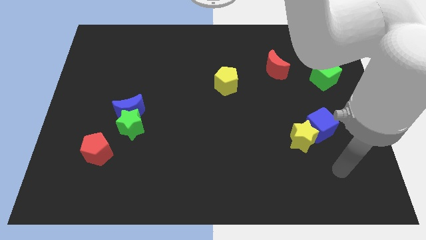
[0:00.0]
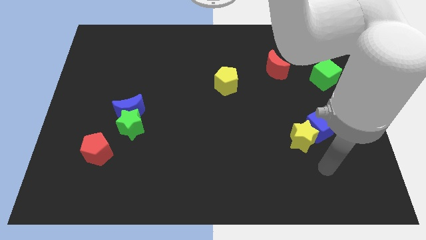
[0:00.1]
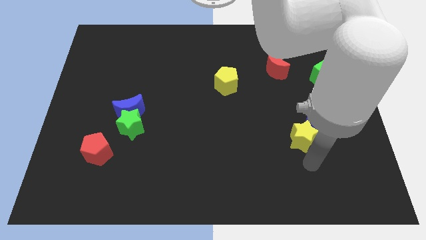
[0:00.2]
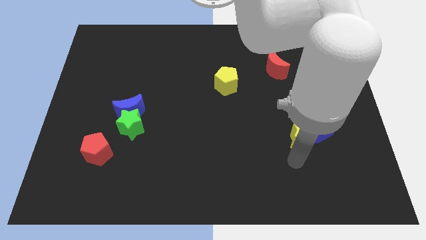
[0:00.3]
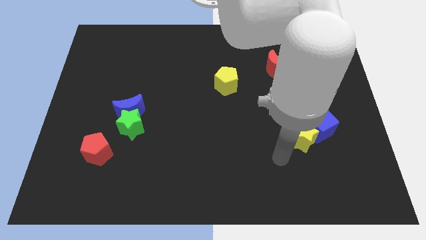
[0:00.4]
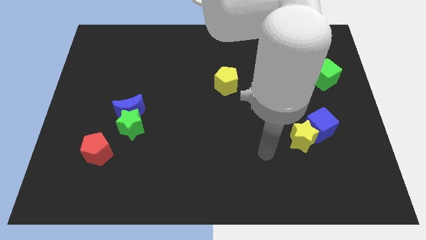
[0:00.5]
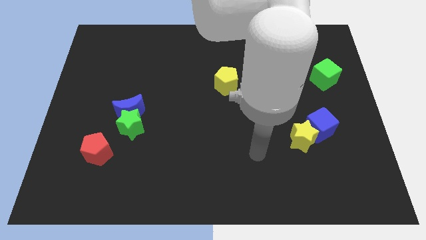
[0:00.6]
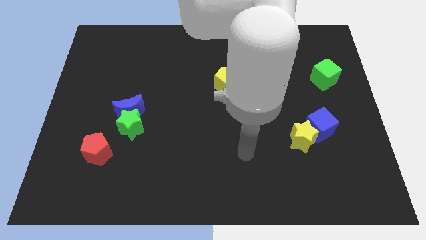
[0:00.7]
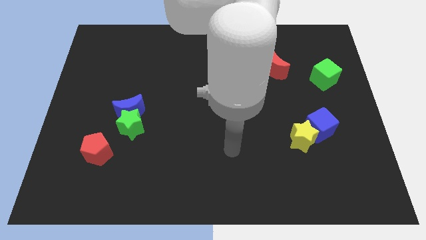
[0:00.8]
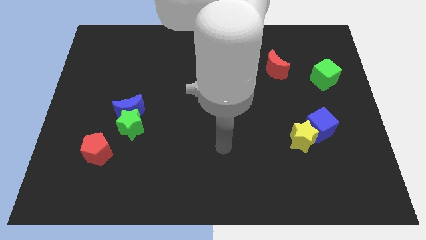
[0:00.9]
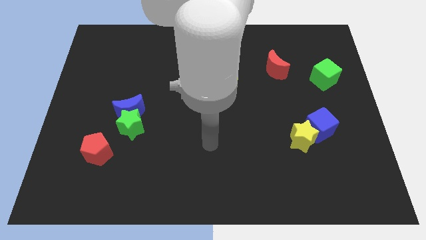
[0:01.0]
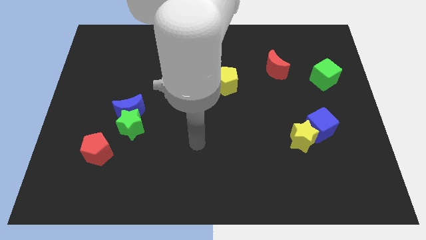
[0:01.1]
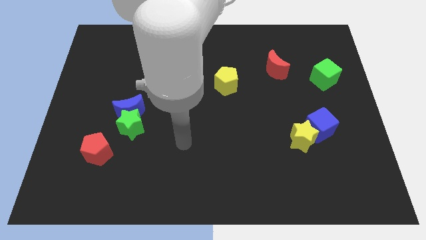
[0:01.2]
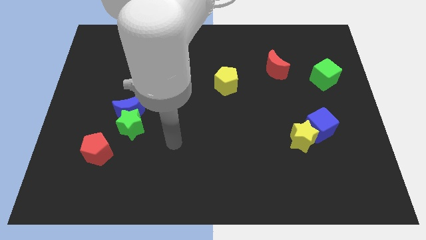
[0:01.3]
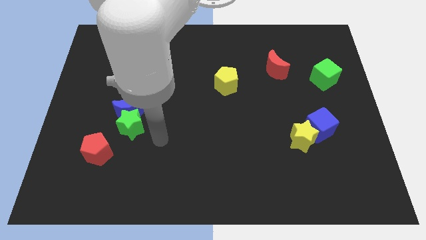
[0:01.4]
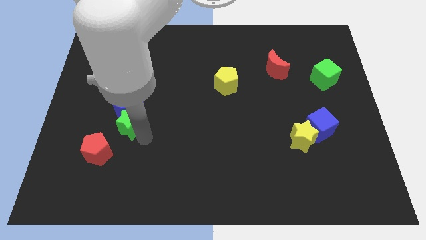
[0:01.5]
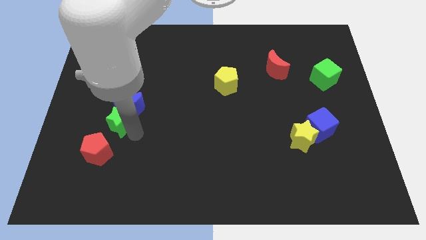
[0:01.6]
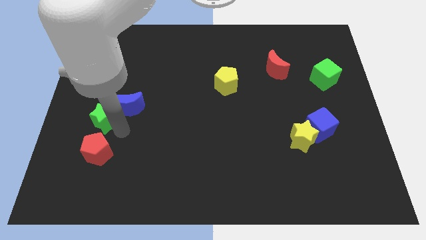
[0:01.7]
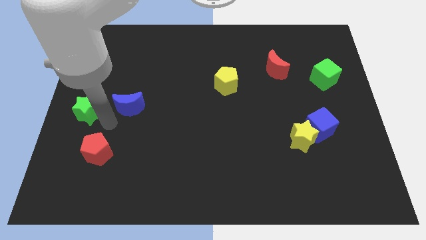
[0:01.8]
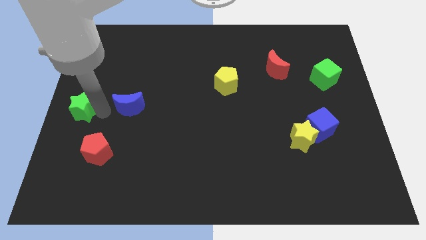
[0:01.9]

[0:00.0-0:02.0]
pull the blue moon apart from the green star

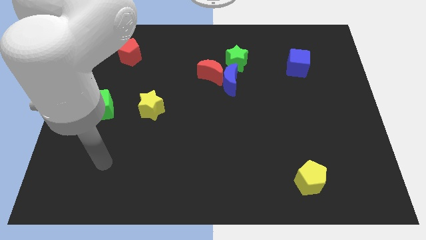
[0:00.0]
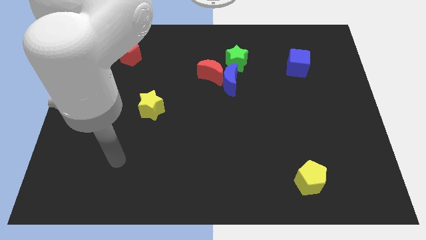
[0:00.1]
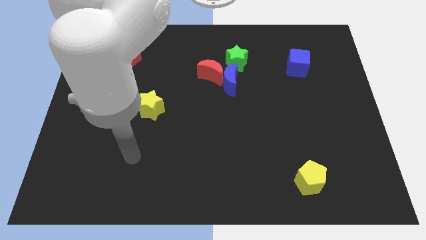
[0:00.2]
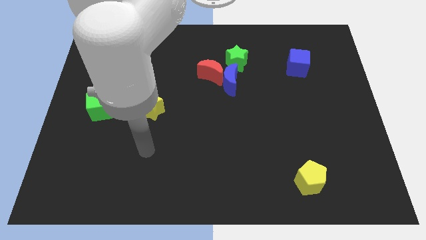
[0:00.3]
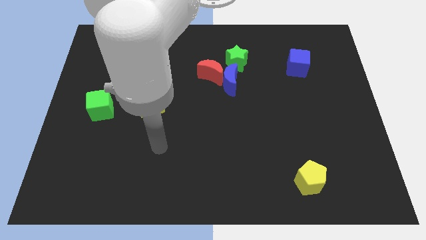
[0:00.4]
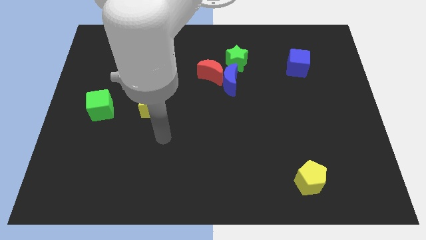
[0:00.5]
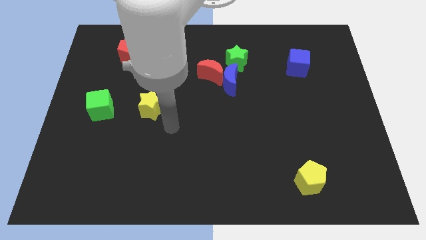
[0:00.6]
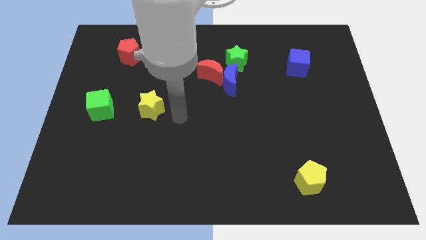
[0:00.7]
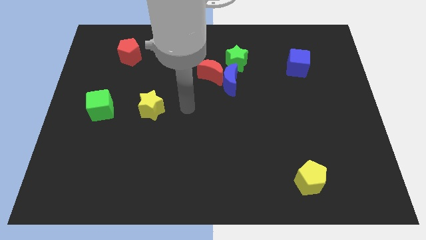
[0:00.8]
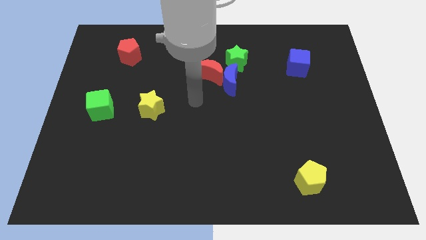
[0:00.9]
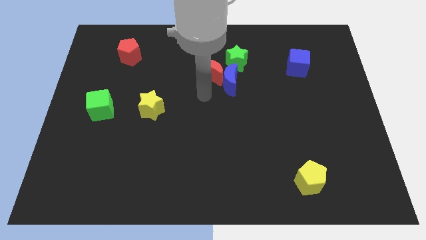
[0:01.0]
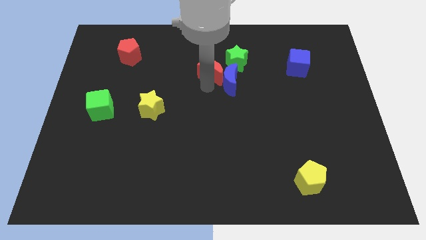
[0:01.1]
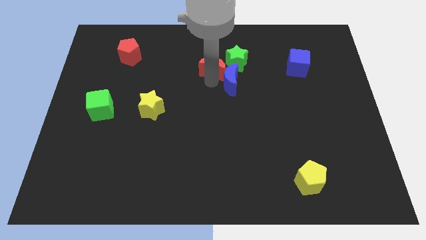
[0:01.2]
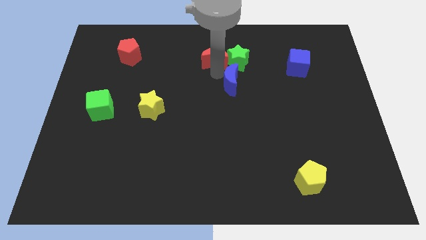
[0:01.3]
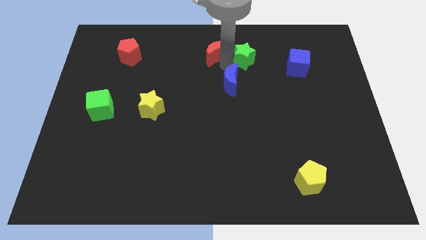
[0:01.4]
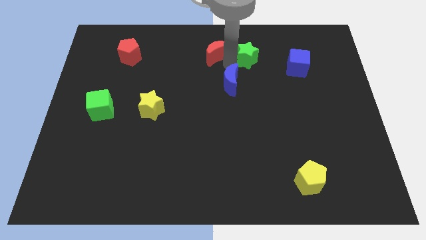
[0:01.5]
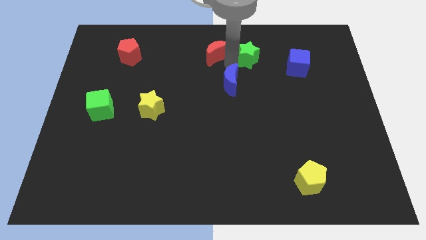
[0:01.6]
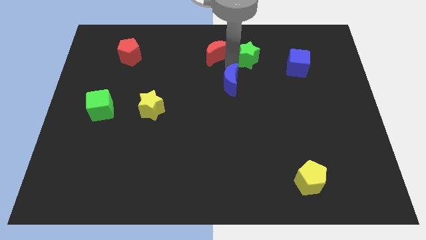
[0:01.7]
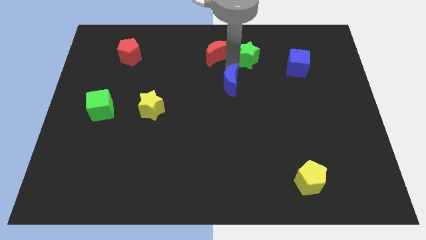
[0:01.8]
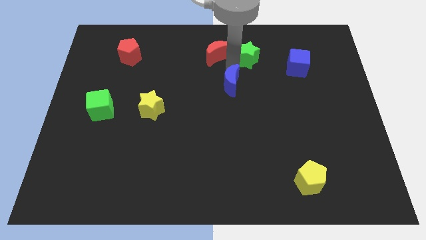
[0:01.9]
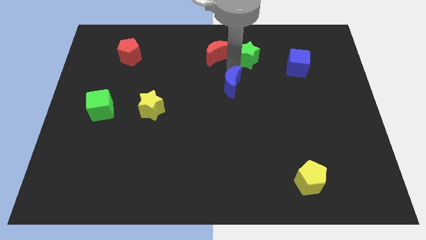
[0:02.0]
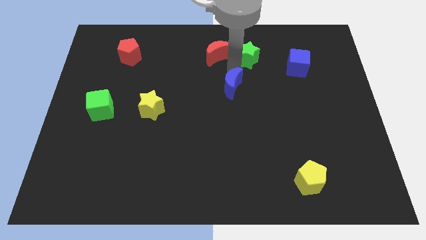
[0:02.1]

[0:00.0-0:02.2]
move the blue moon away from the red moon and green star

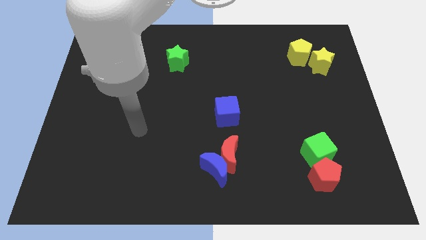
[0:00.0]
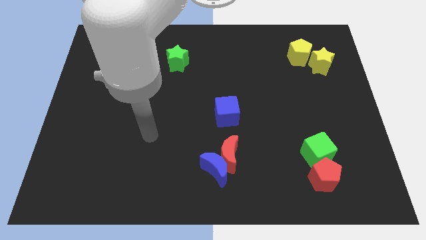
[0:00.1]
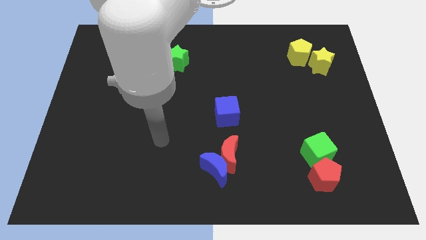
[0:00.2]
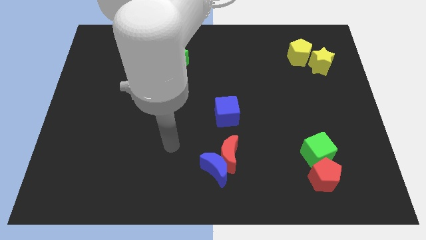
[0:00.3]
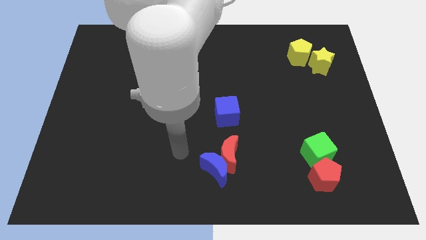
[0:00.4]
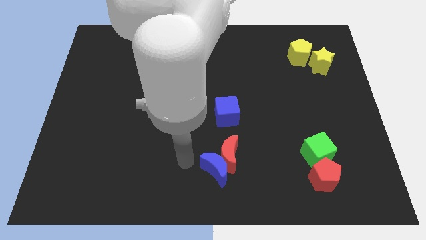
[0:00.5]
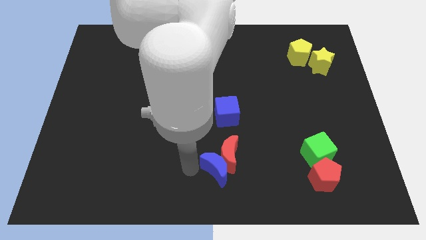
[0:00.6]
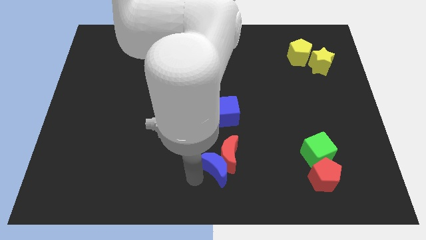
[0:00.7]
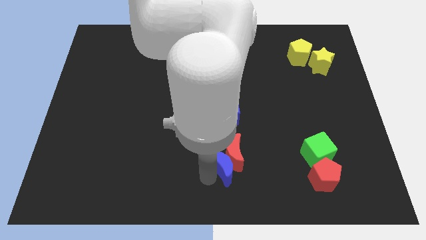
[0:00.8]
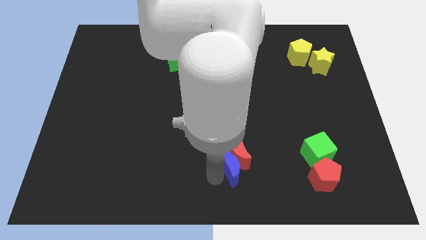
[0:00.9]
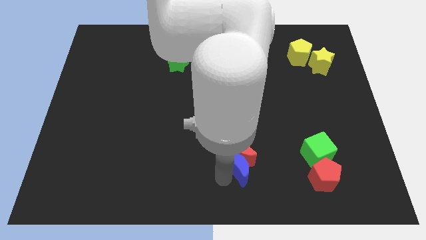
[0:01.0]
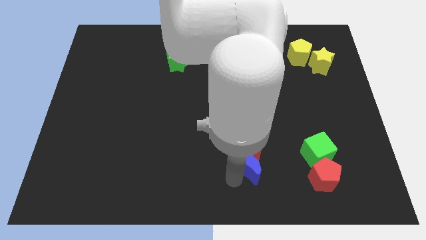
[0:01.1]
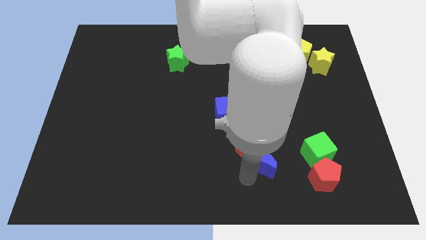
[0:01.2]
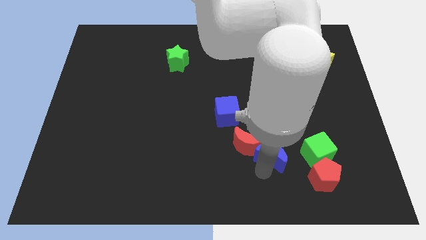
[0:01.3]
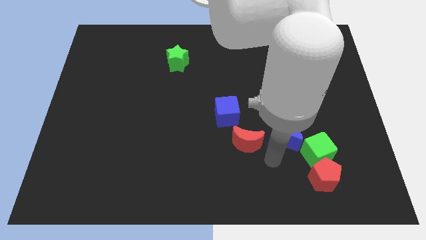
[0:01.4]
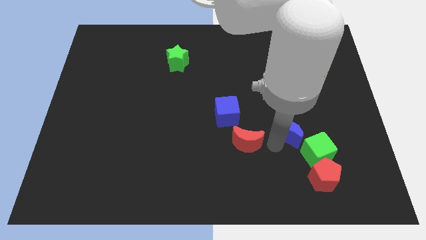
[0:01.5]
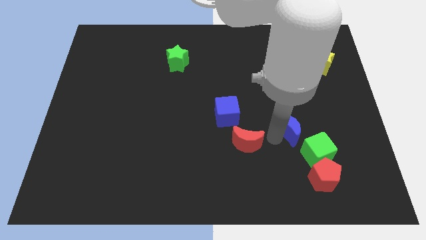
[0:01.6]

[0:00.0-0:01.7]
separate the red moon from the blue moon

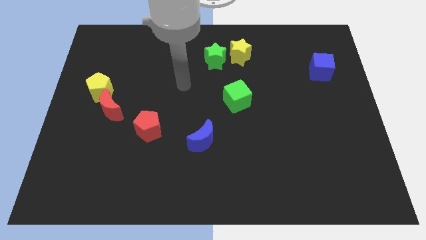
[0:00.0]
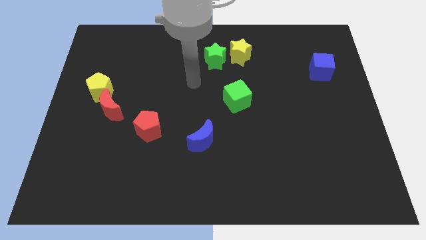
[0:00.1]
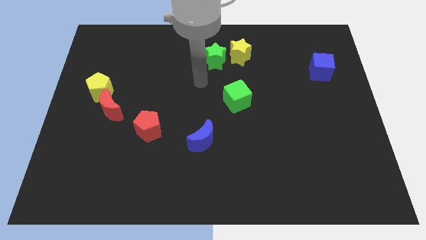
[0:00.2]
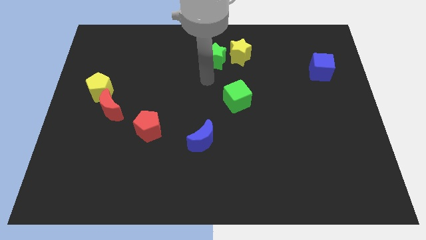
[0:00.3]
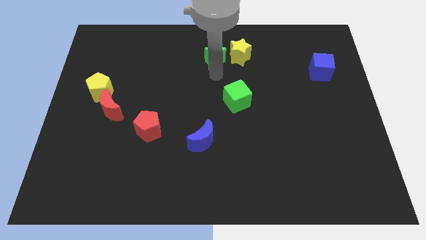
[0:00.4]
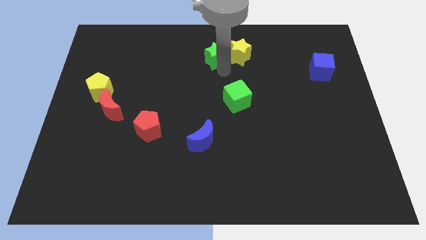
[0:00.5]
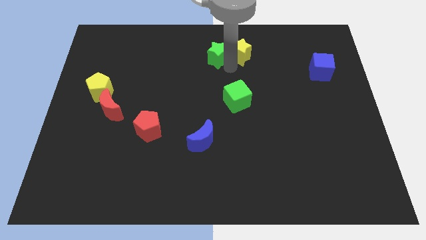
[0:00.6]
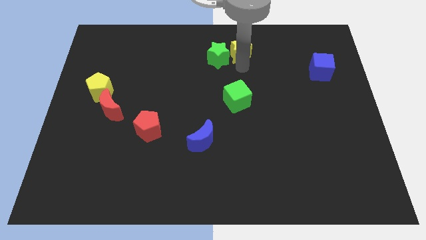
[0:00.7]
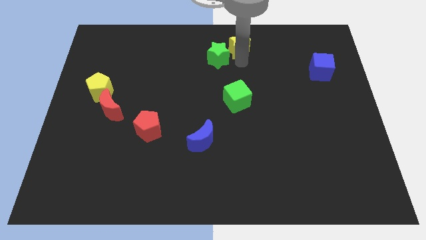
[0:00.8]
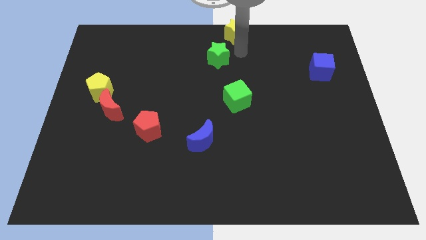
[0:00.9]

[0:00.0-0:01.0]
move the green star away from the yellow star

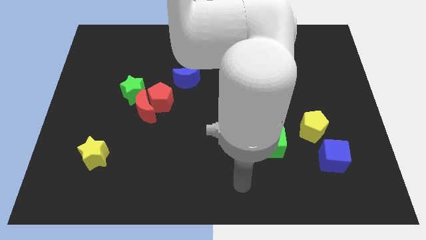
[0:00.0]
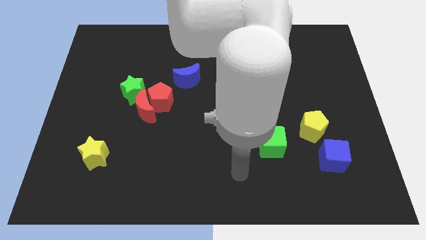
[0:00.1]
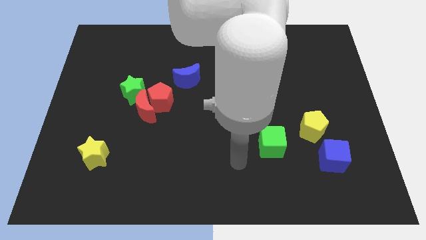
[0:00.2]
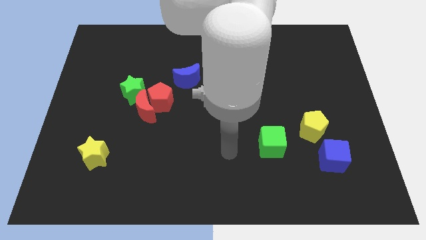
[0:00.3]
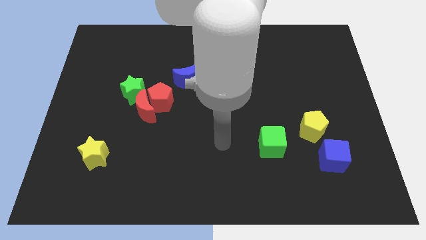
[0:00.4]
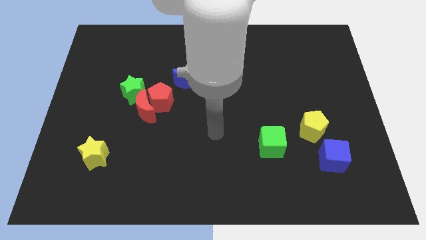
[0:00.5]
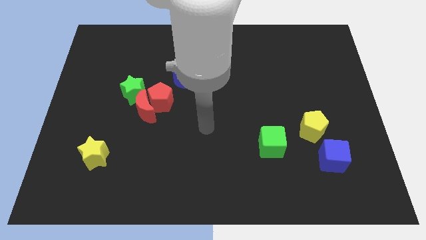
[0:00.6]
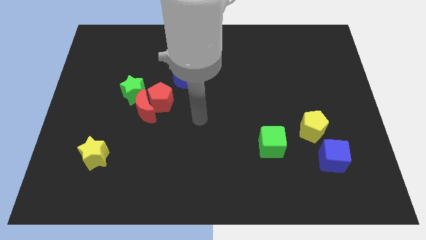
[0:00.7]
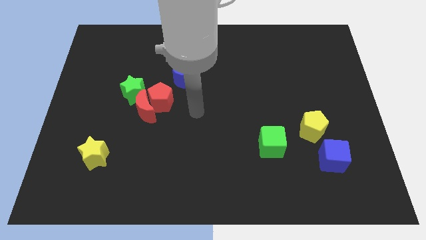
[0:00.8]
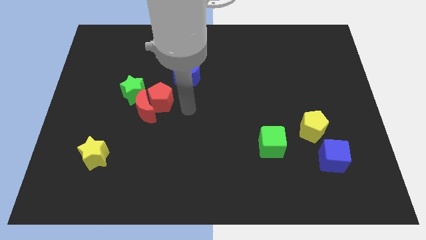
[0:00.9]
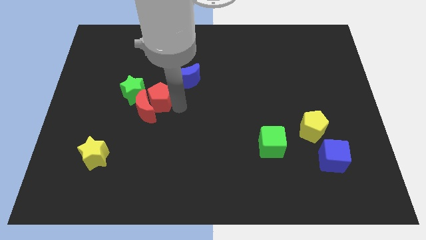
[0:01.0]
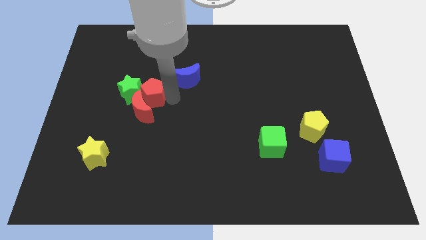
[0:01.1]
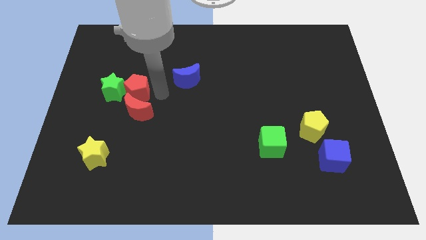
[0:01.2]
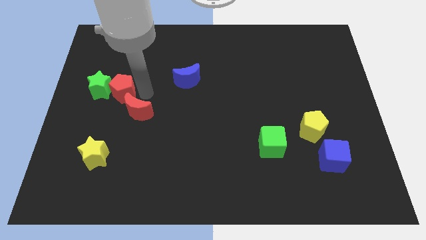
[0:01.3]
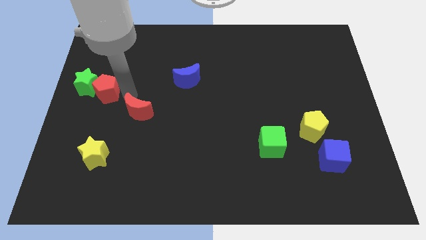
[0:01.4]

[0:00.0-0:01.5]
pull the red moon apart from the red pentagon and green star

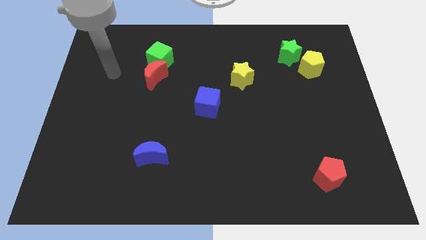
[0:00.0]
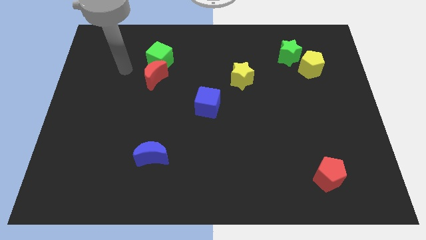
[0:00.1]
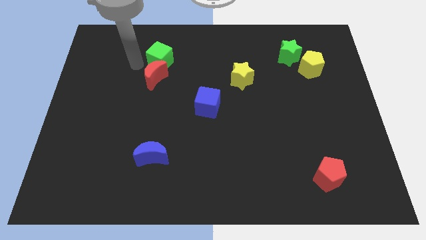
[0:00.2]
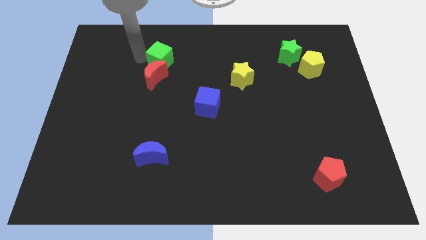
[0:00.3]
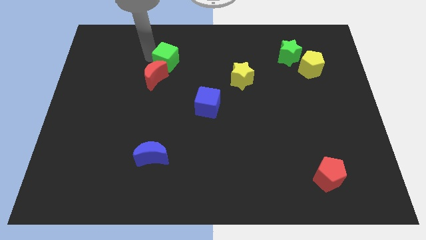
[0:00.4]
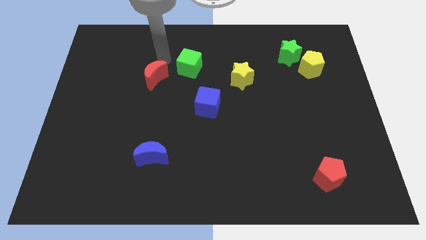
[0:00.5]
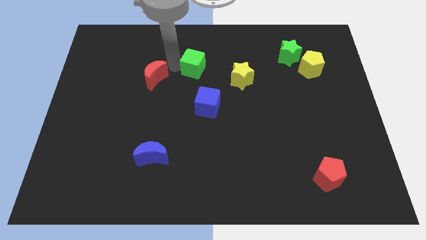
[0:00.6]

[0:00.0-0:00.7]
separate the red moon from the green cube

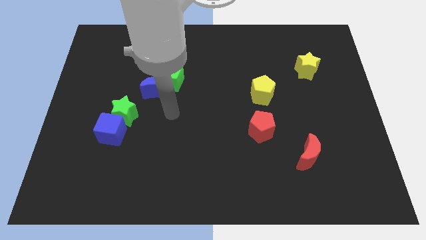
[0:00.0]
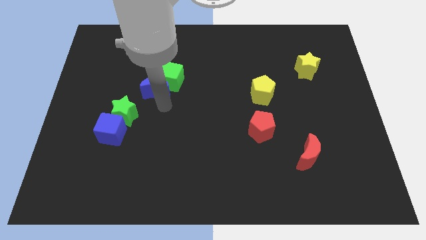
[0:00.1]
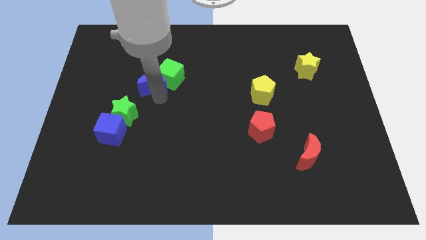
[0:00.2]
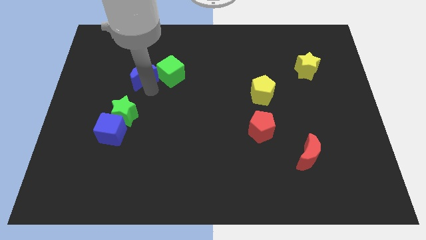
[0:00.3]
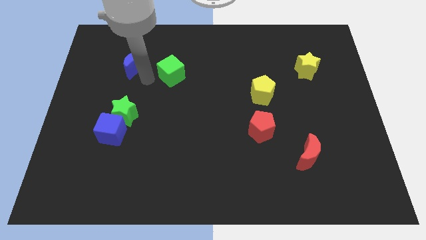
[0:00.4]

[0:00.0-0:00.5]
separate the green cube from the blue moon
